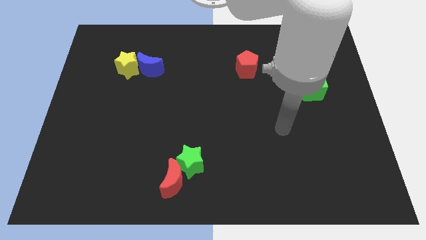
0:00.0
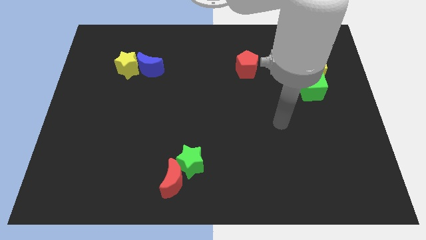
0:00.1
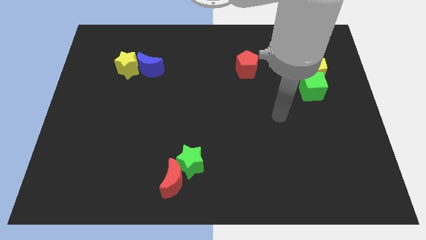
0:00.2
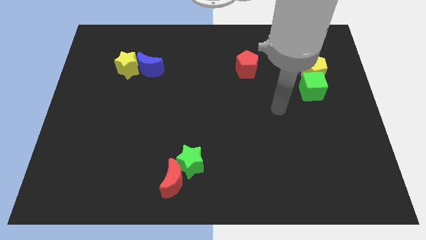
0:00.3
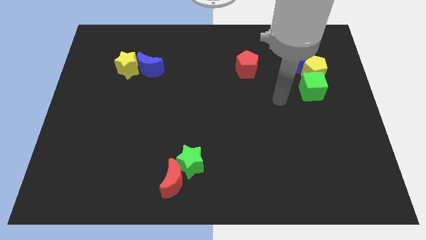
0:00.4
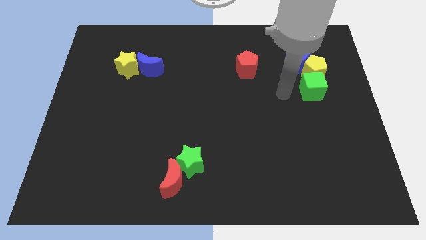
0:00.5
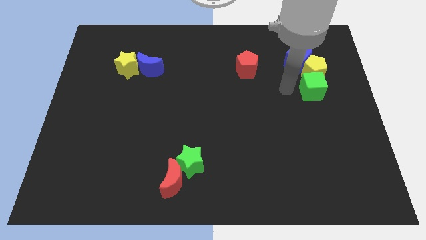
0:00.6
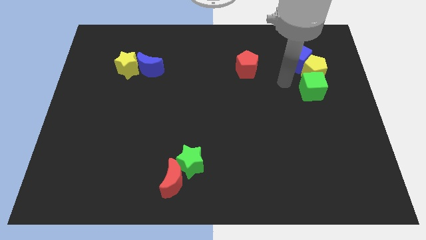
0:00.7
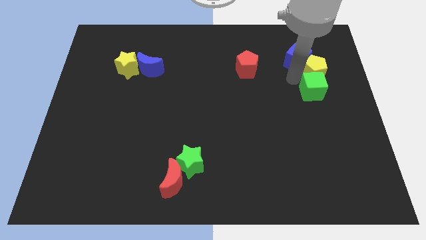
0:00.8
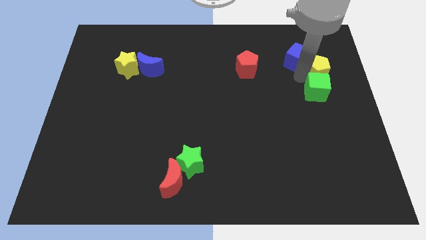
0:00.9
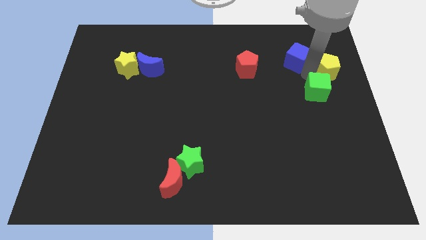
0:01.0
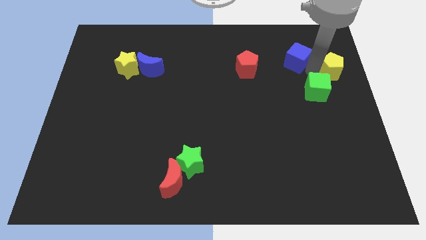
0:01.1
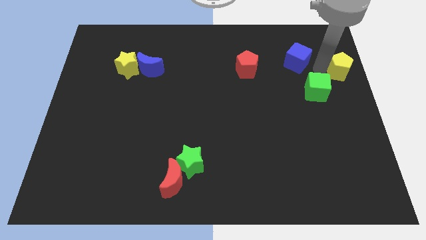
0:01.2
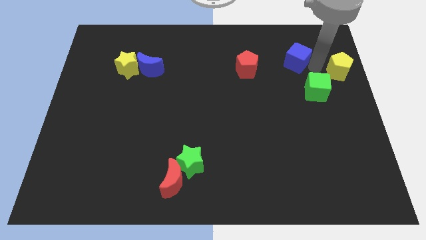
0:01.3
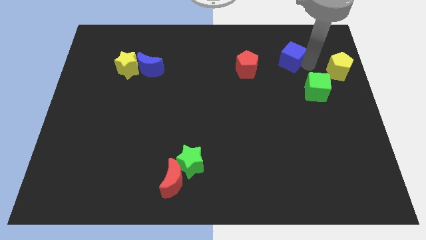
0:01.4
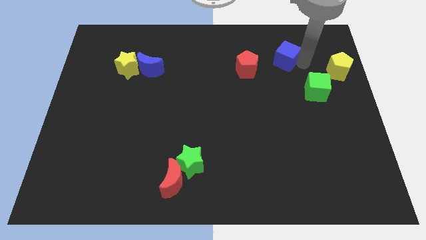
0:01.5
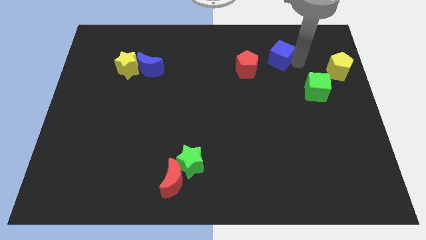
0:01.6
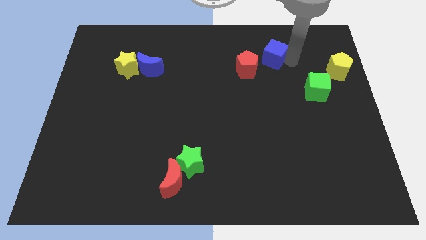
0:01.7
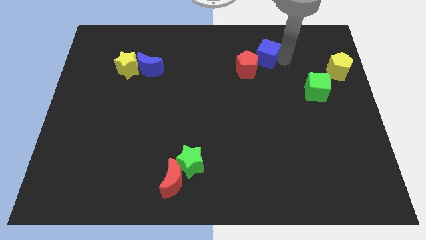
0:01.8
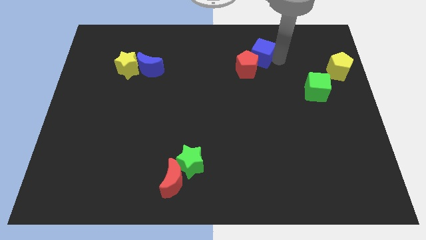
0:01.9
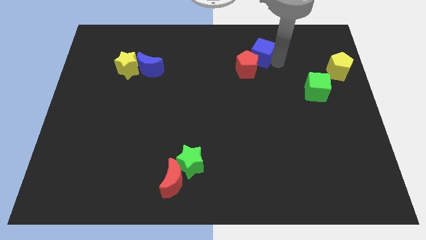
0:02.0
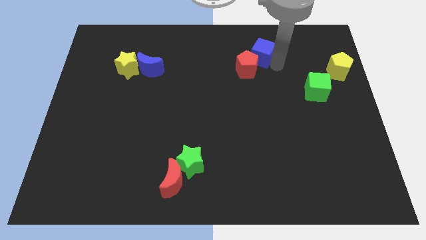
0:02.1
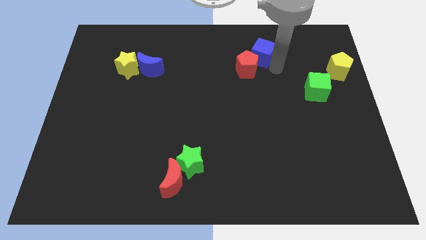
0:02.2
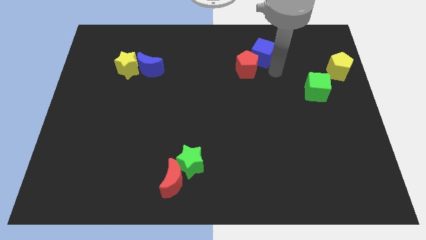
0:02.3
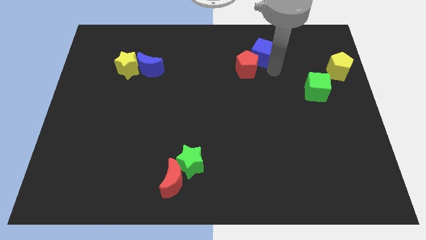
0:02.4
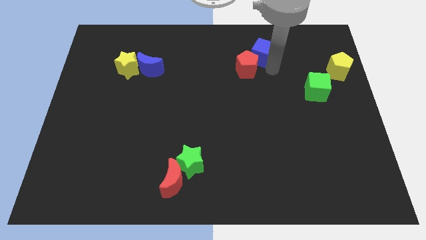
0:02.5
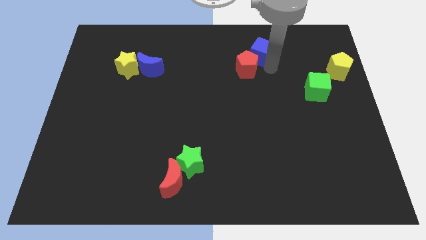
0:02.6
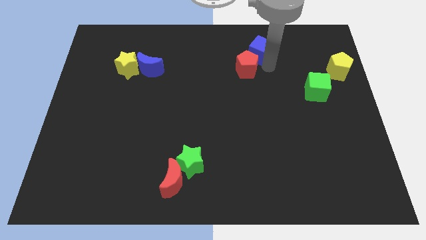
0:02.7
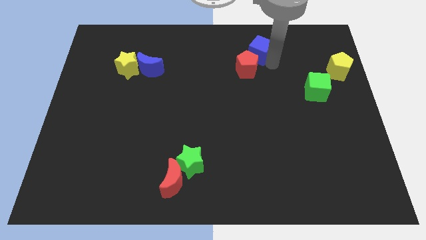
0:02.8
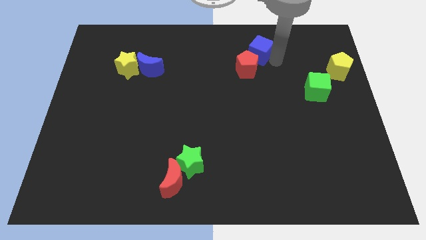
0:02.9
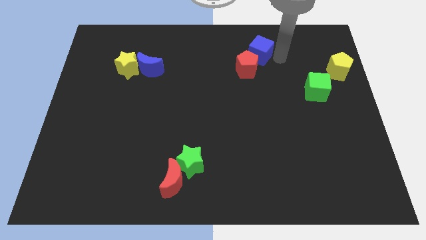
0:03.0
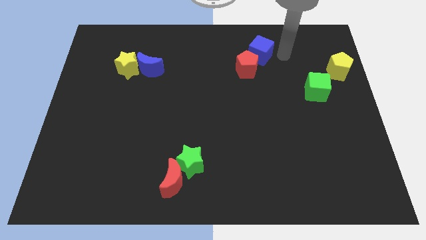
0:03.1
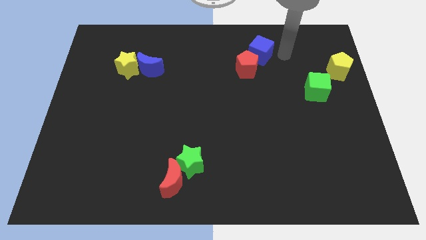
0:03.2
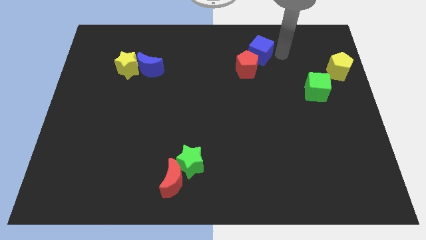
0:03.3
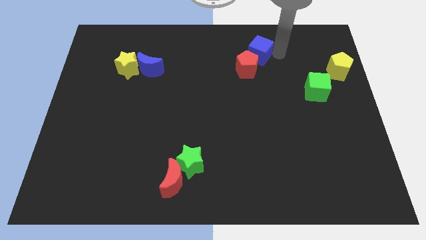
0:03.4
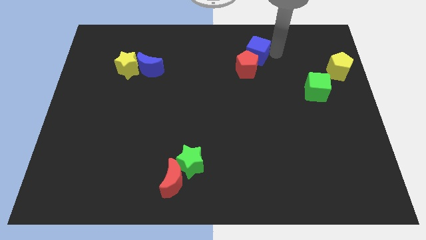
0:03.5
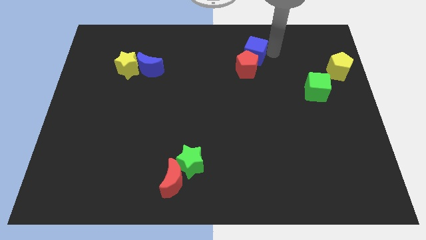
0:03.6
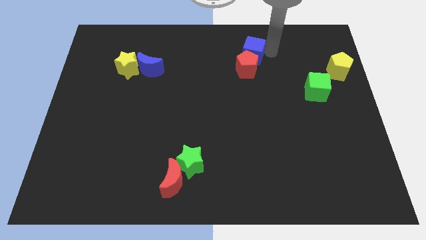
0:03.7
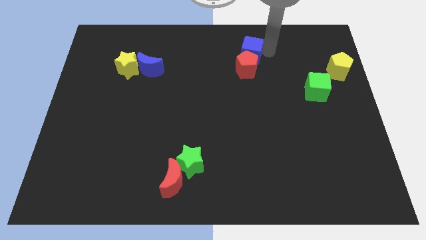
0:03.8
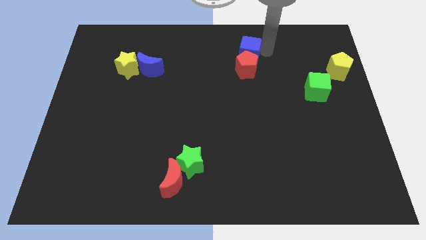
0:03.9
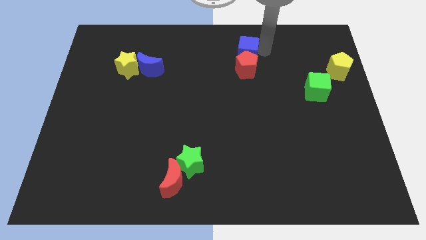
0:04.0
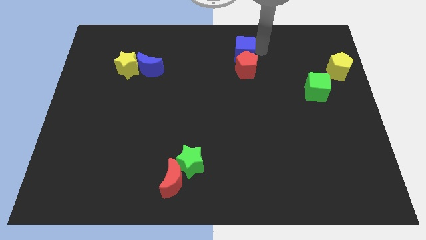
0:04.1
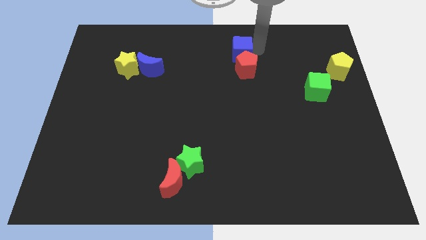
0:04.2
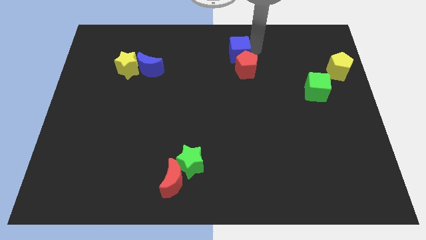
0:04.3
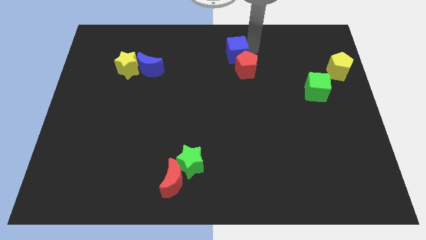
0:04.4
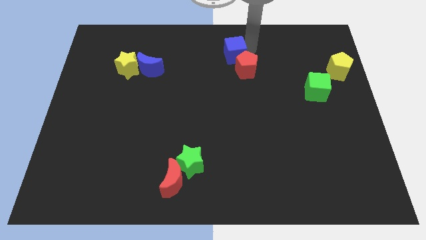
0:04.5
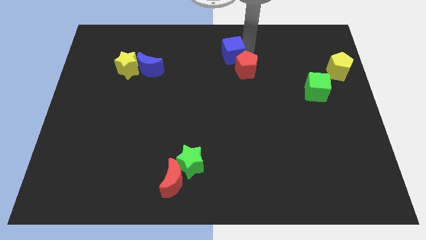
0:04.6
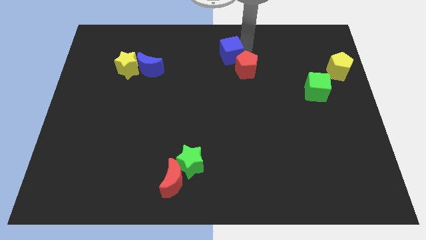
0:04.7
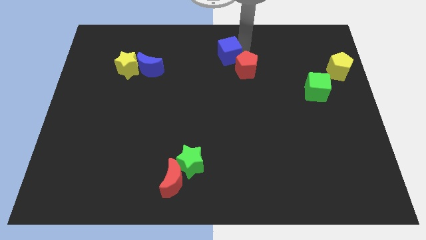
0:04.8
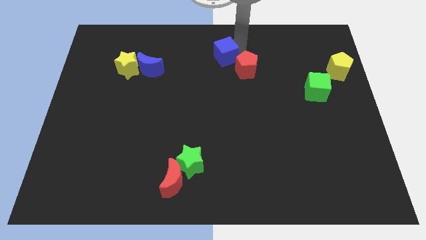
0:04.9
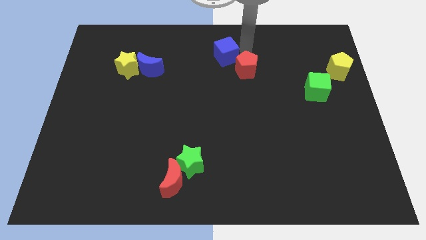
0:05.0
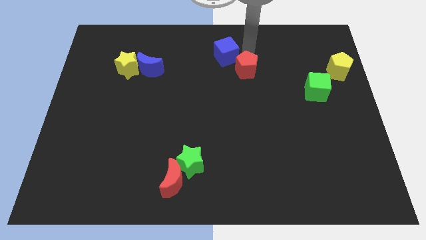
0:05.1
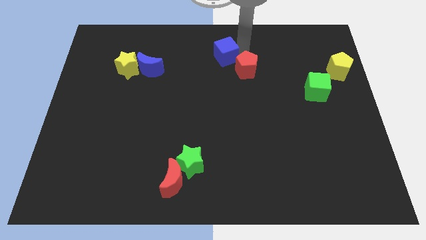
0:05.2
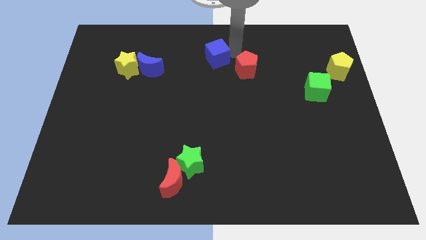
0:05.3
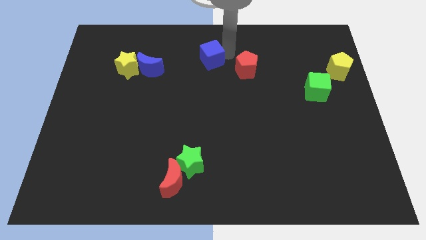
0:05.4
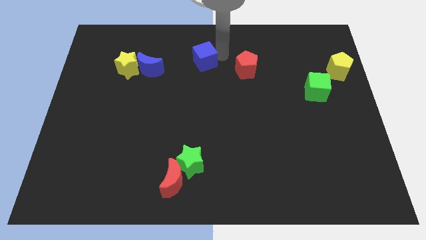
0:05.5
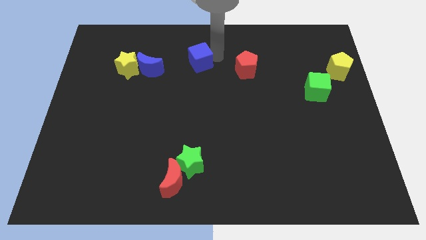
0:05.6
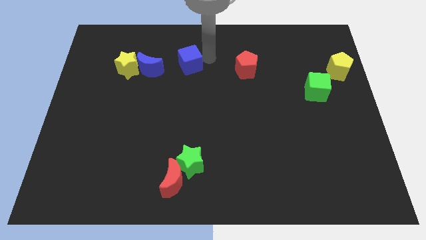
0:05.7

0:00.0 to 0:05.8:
slide the blue cube to the right of the yellow star
